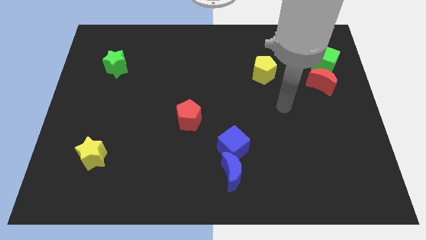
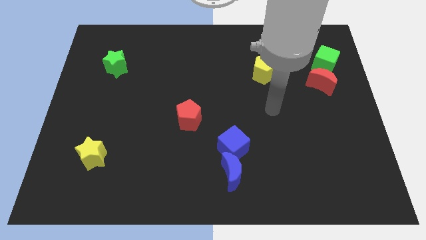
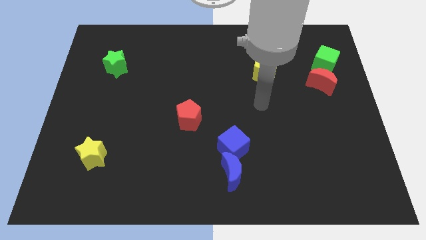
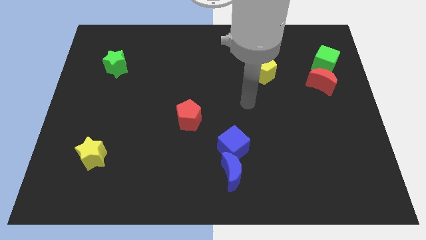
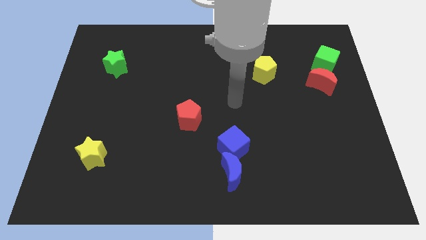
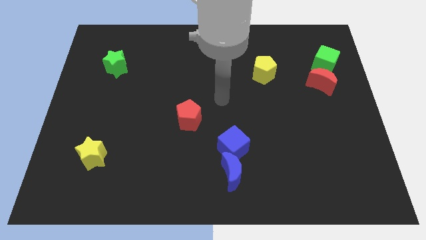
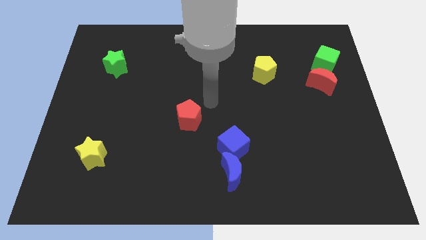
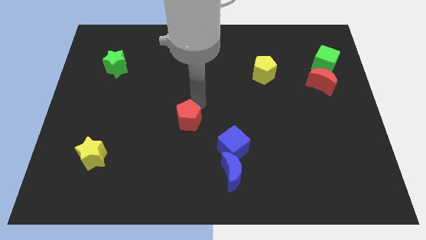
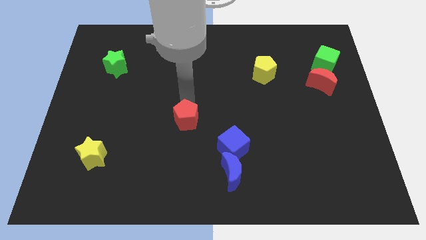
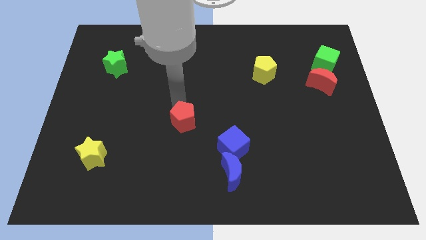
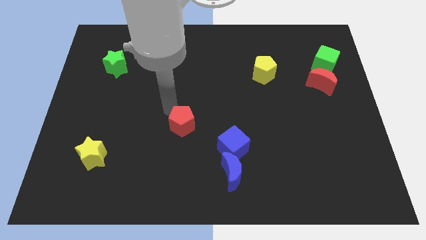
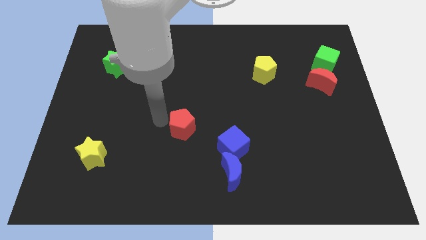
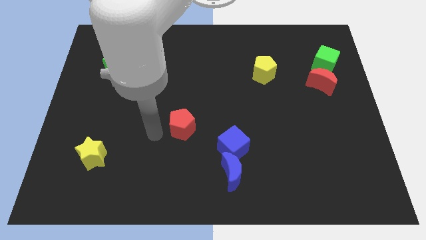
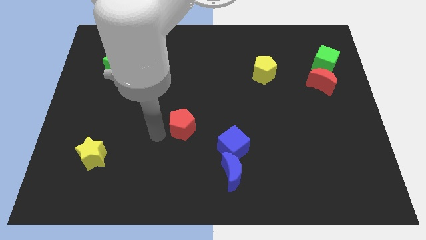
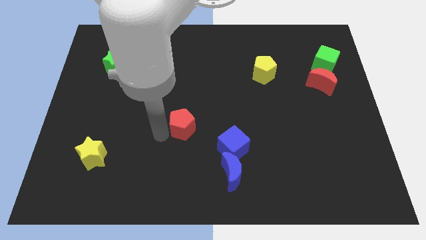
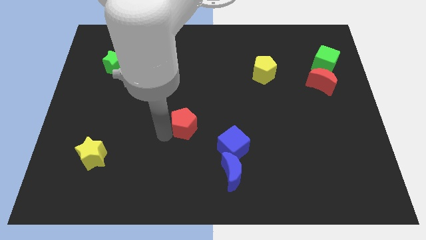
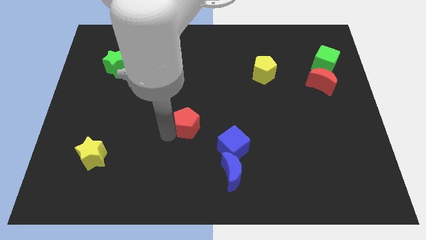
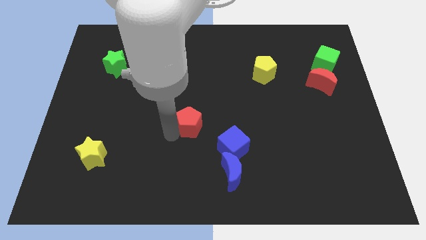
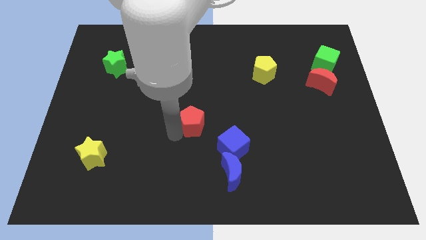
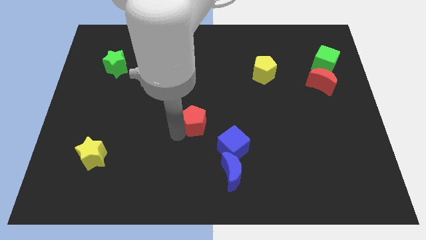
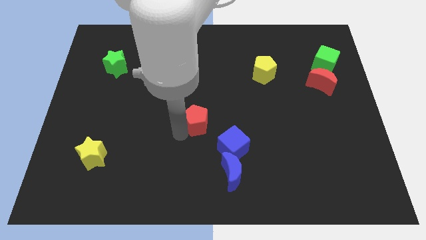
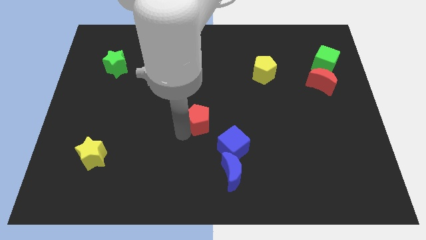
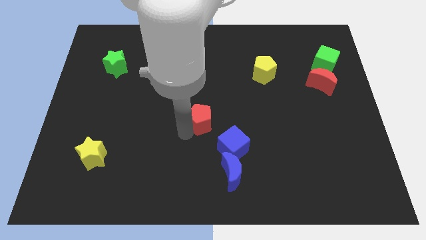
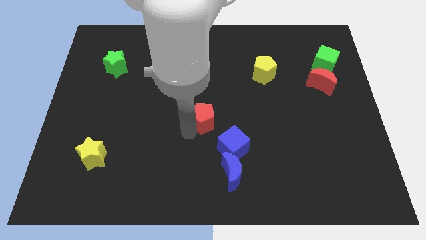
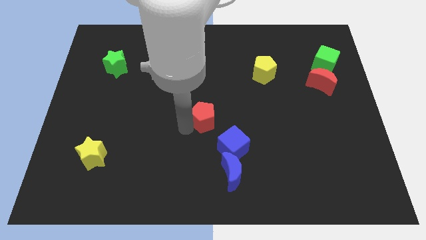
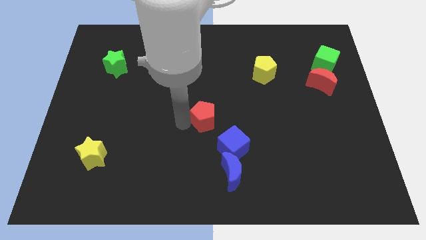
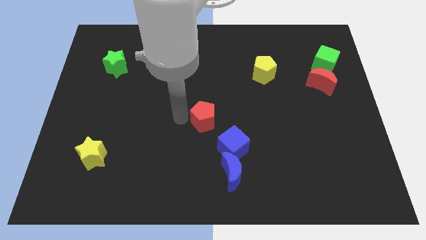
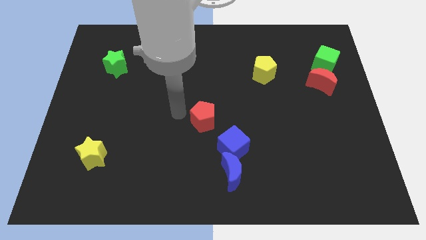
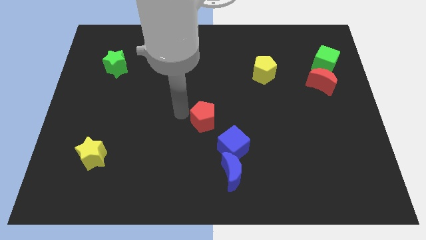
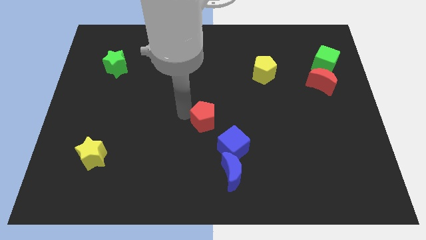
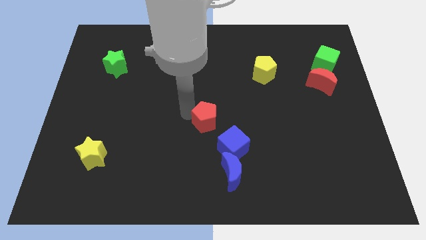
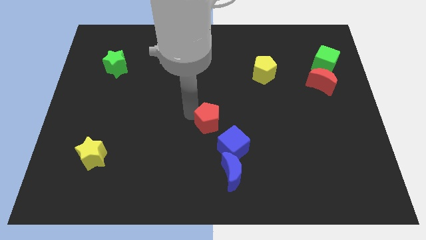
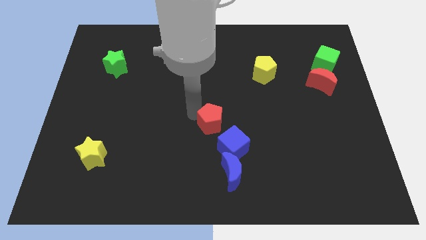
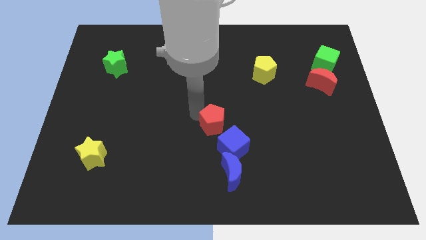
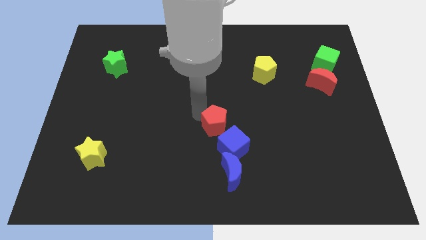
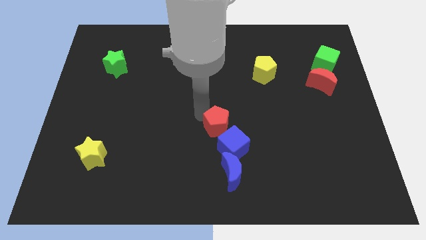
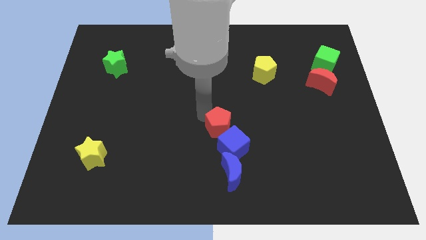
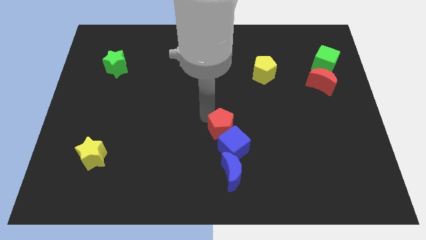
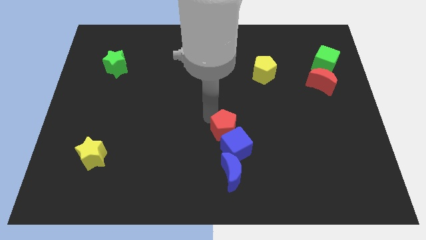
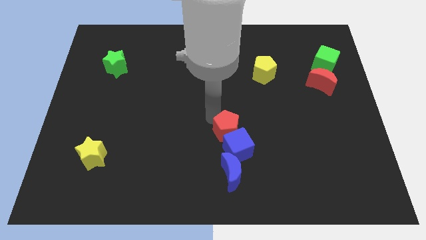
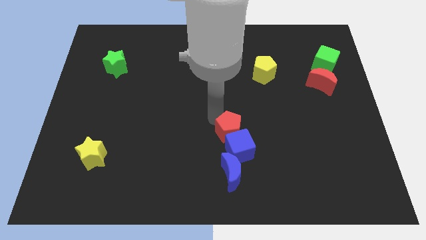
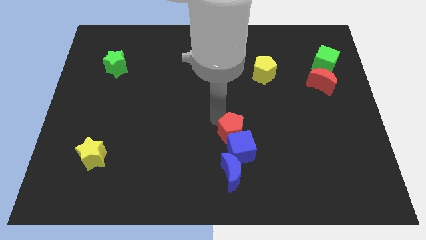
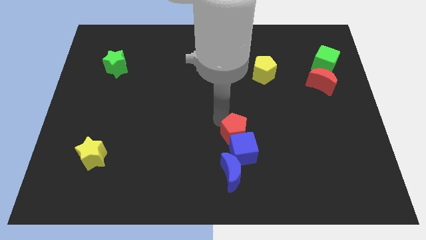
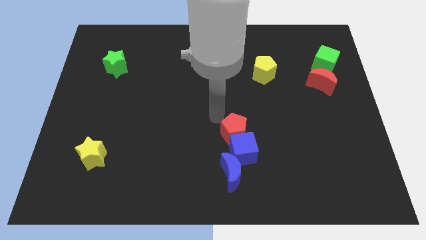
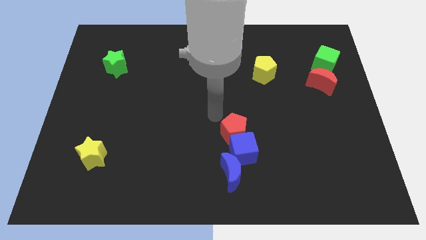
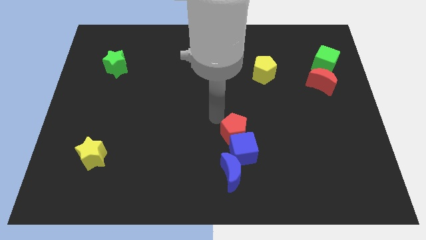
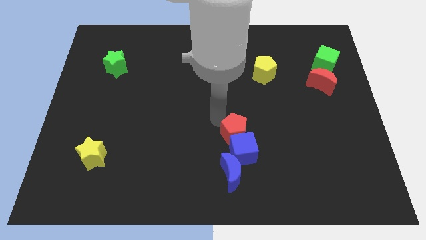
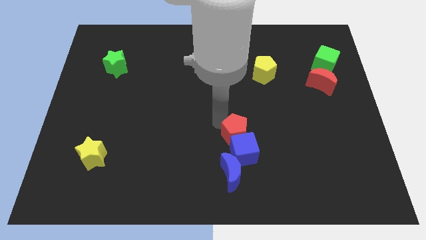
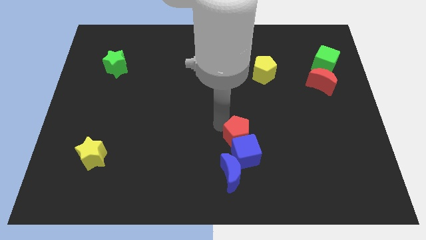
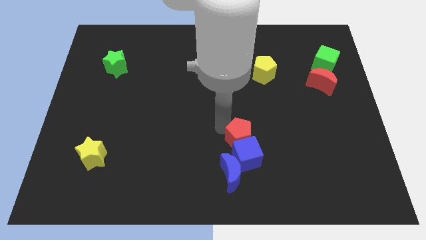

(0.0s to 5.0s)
put the red pentagon to the top right of the blue moon

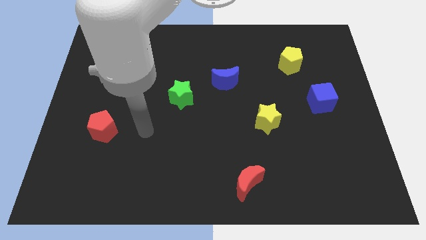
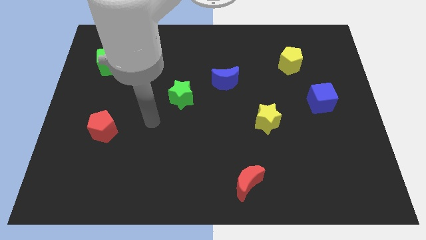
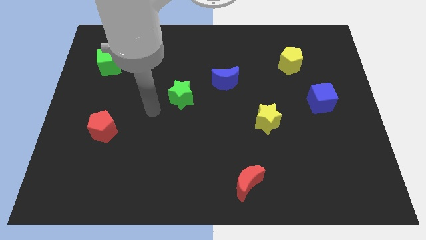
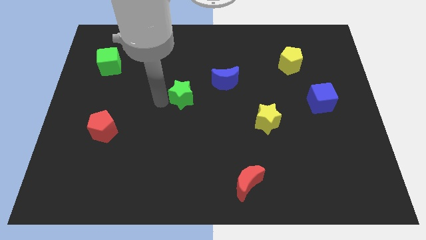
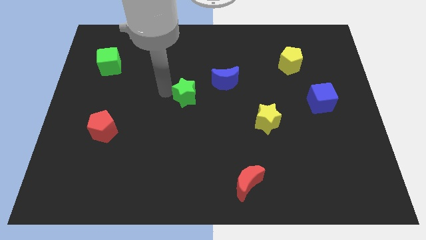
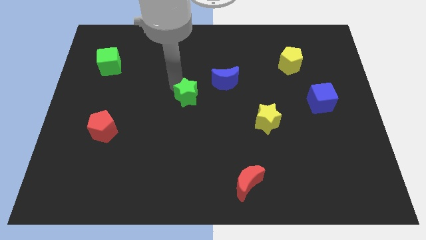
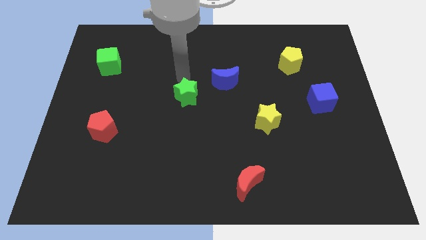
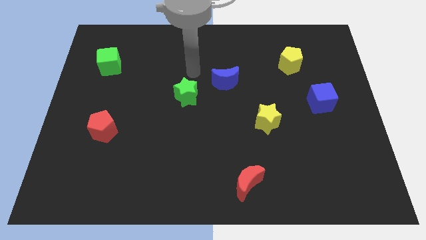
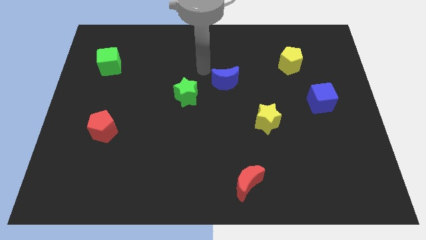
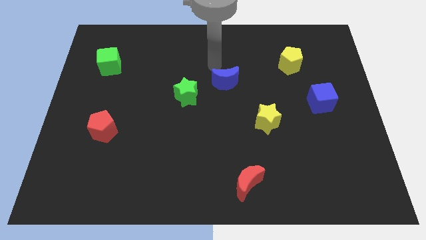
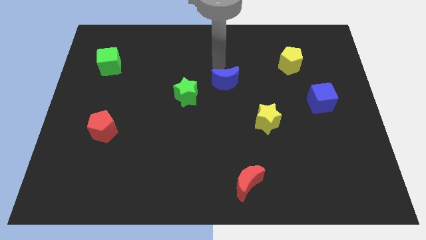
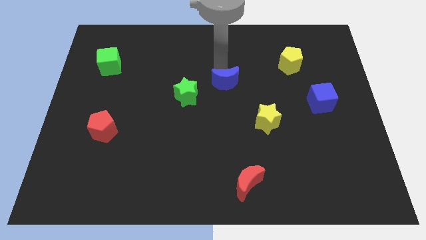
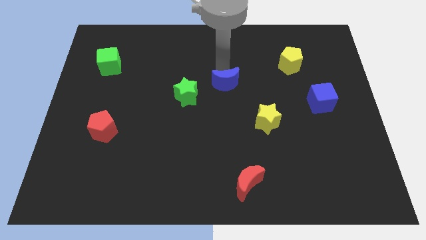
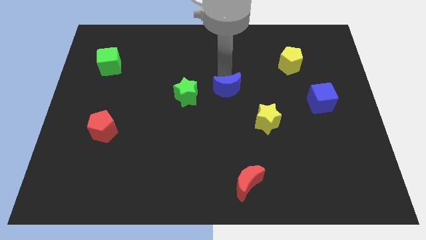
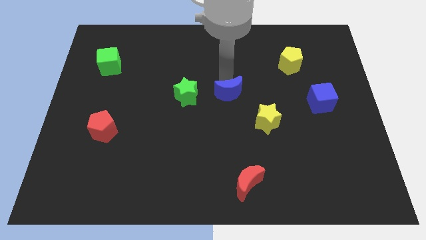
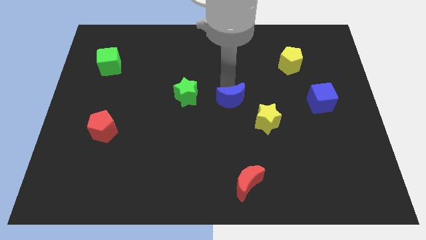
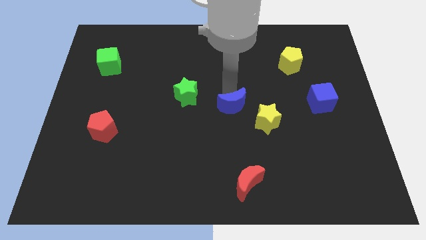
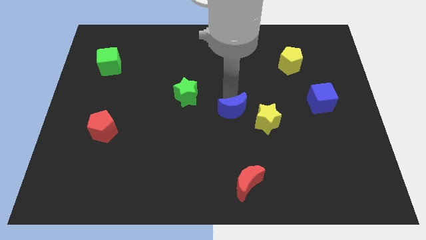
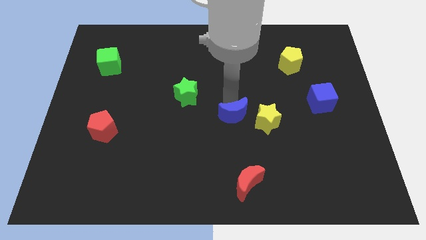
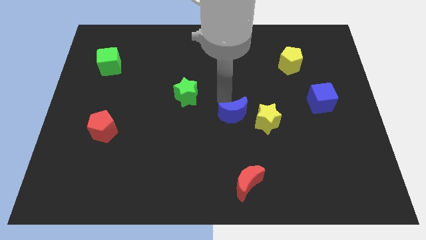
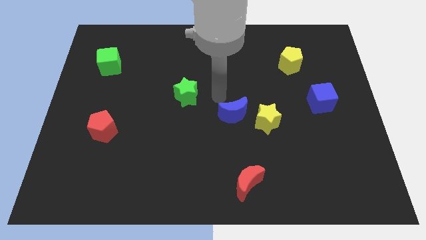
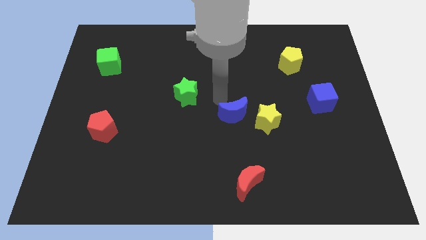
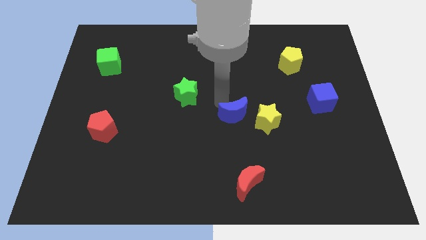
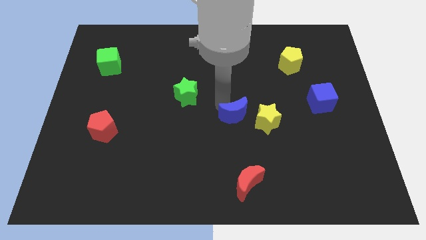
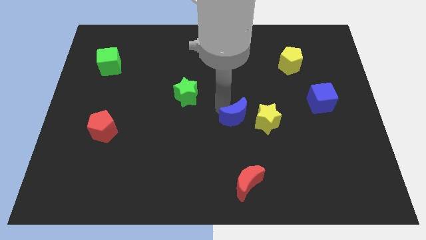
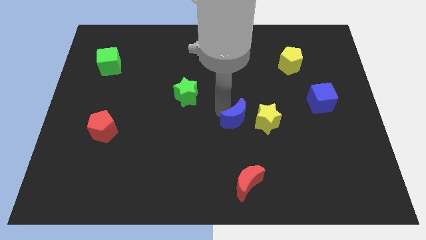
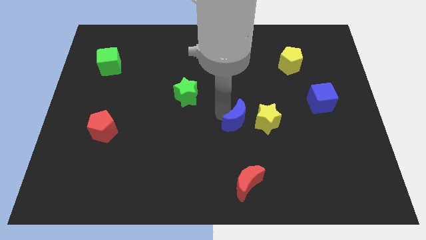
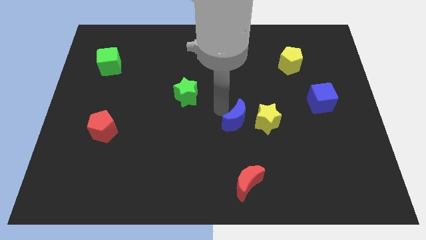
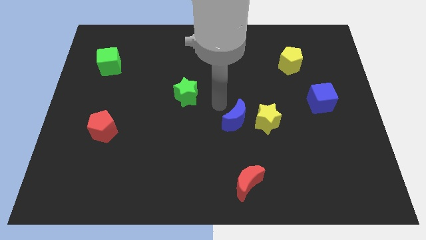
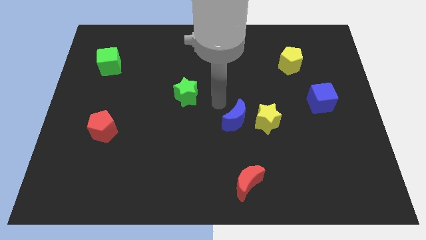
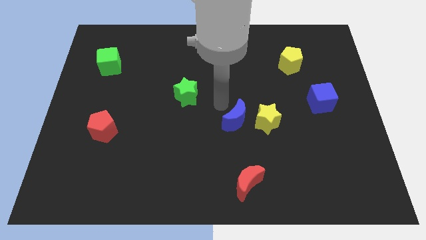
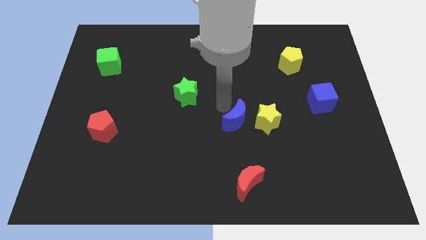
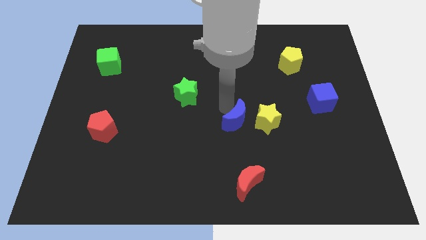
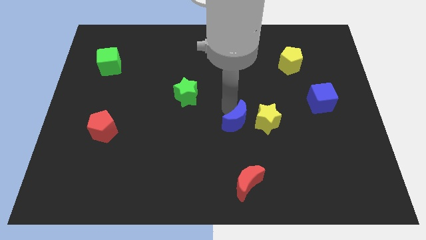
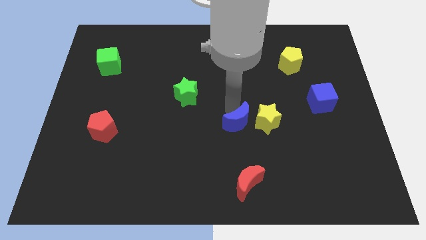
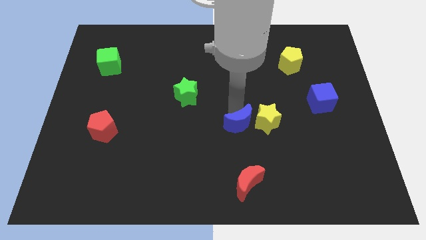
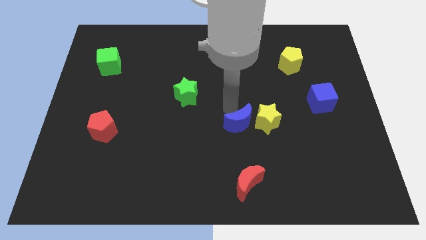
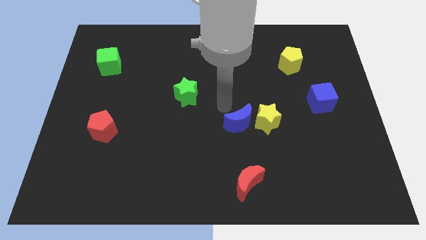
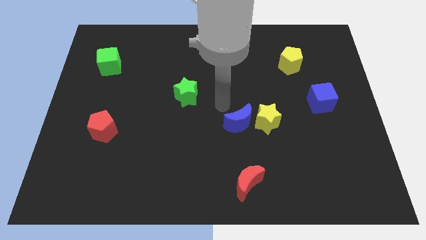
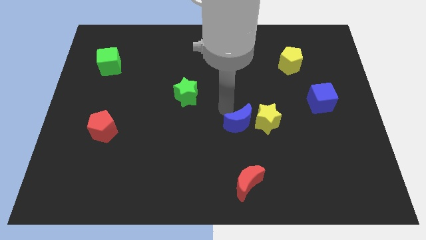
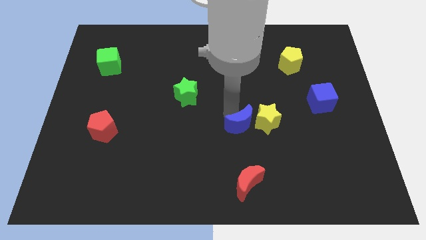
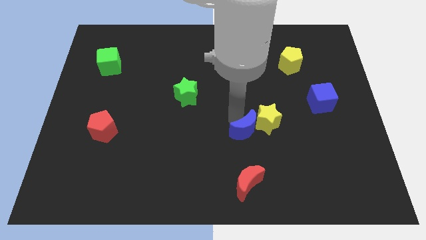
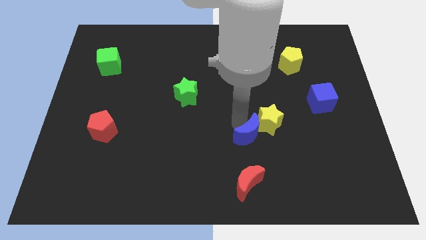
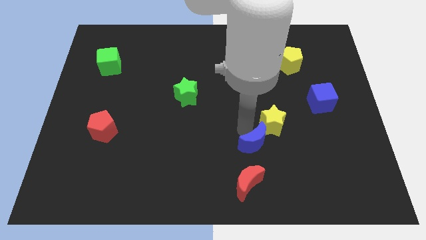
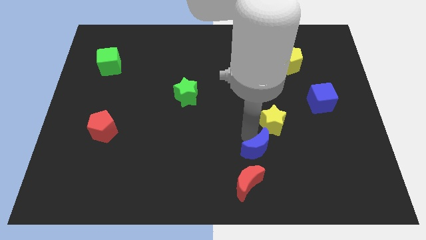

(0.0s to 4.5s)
push the blue moon diagonally up and to the right of the red moon
